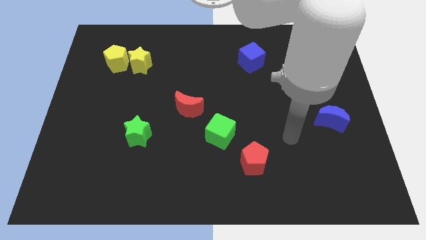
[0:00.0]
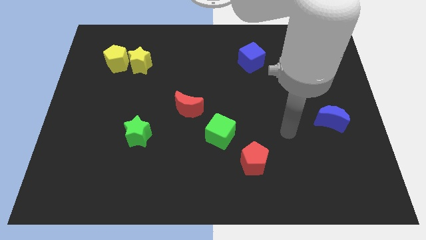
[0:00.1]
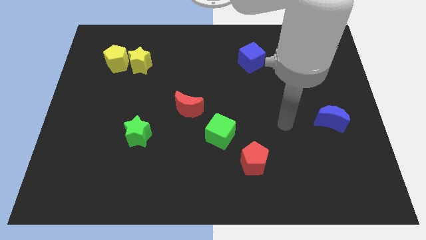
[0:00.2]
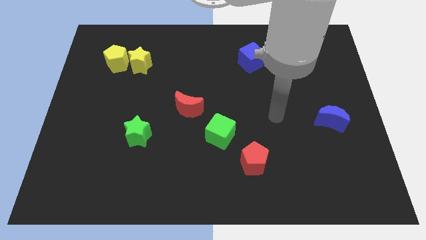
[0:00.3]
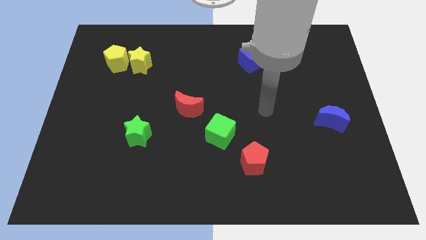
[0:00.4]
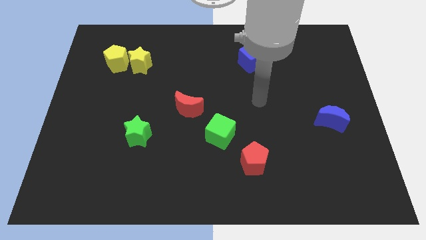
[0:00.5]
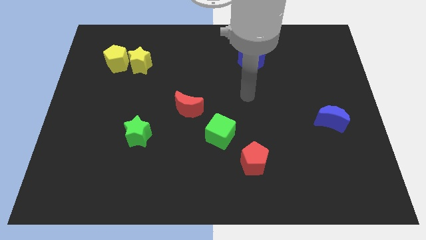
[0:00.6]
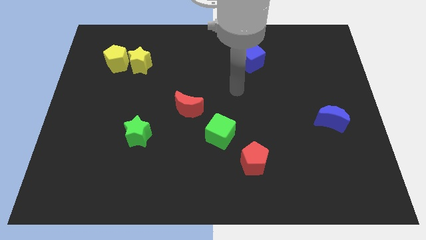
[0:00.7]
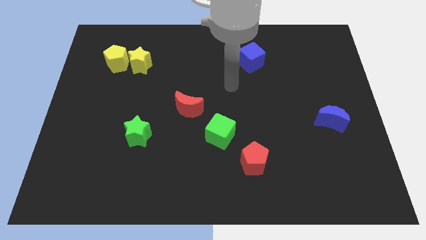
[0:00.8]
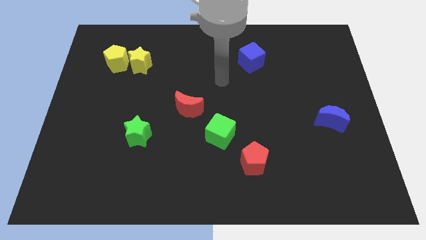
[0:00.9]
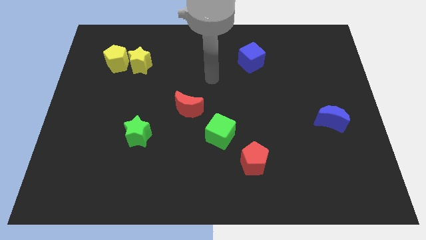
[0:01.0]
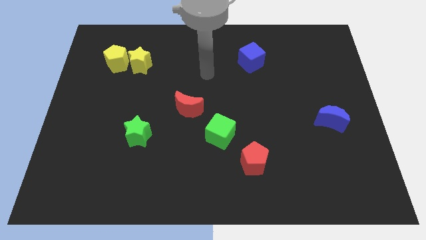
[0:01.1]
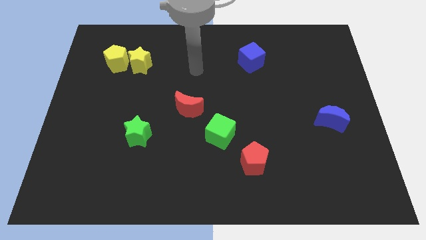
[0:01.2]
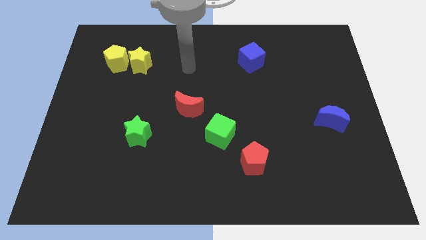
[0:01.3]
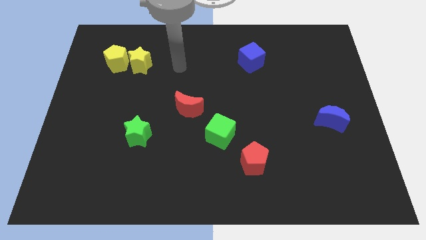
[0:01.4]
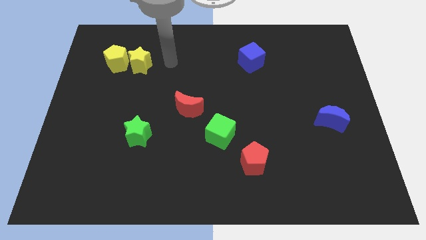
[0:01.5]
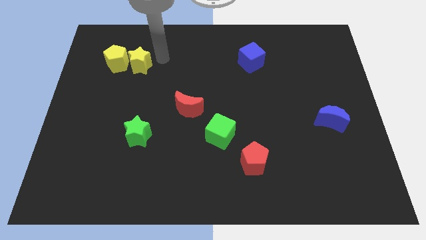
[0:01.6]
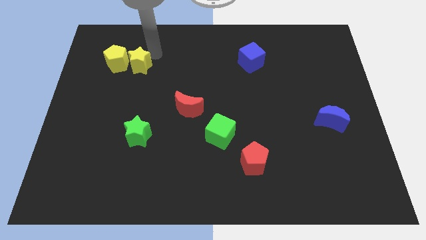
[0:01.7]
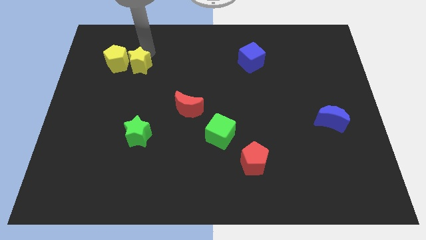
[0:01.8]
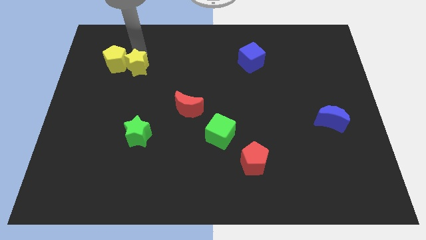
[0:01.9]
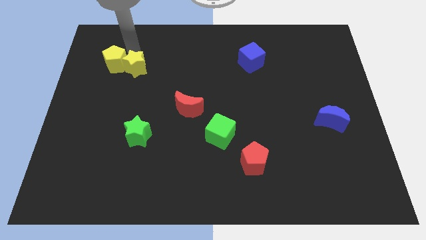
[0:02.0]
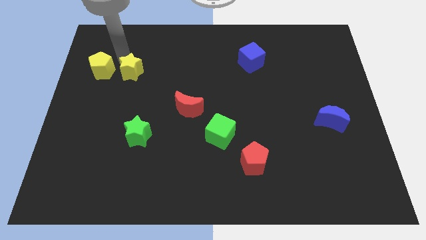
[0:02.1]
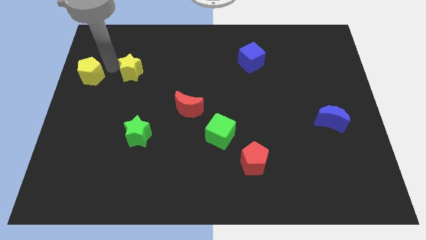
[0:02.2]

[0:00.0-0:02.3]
move the yellow star away from the yellow pentagon

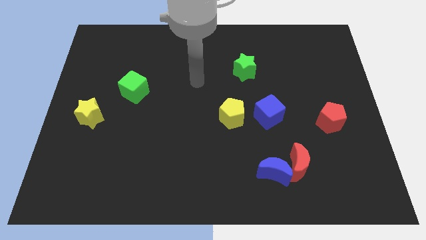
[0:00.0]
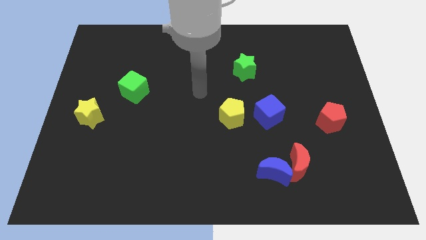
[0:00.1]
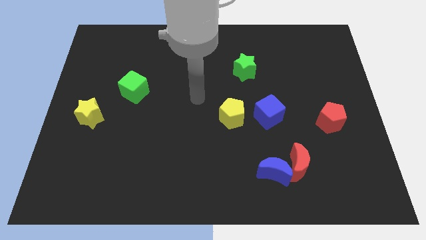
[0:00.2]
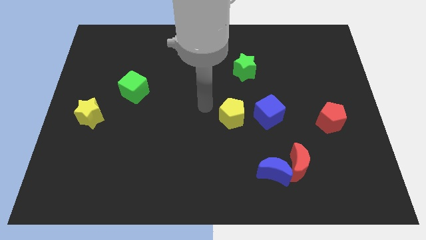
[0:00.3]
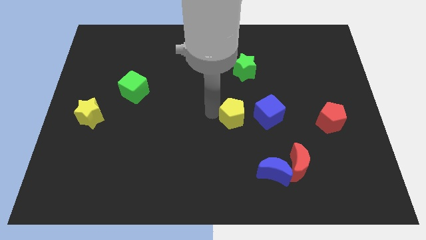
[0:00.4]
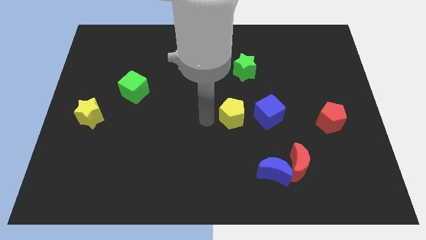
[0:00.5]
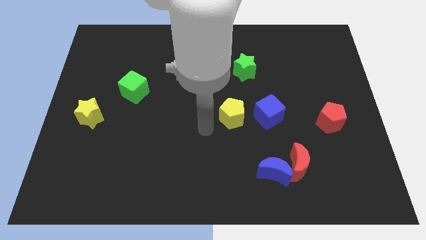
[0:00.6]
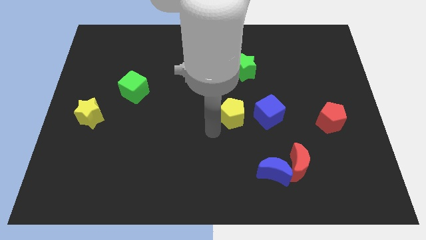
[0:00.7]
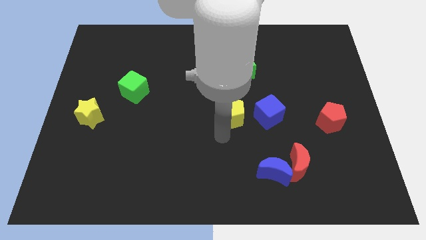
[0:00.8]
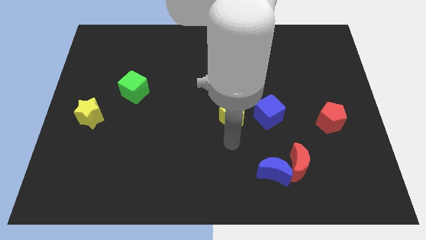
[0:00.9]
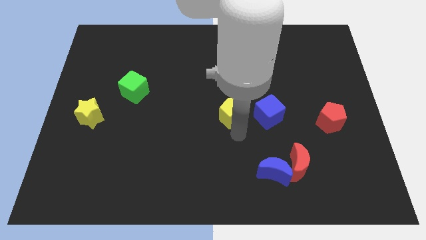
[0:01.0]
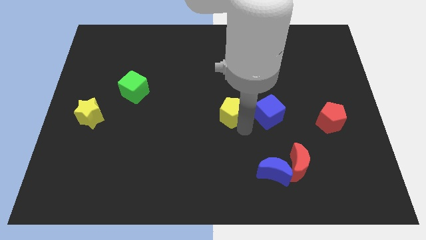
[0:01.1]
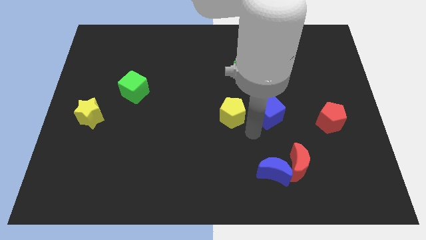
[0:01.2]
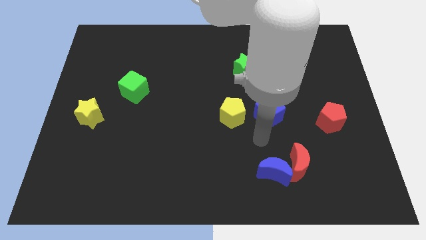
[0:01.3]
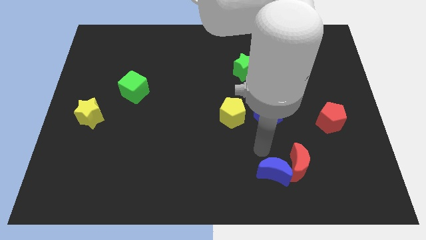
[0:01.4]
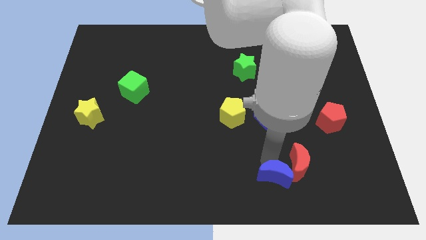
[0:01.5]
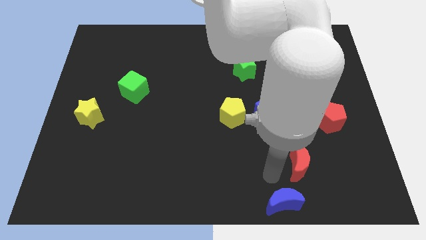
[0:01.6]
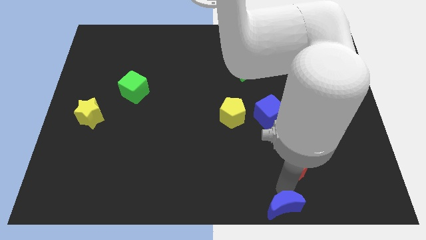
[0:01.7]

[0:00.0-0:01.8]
move the red moon away from the blue moon

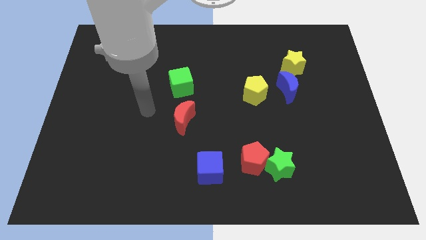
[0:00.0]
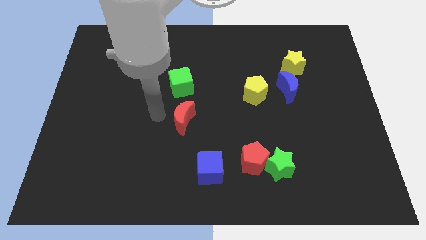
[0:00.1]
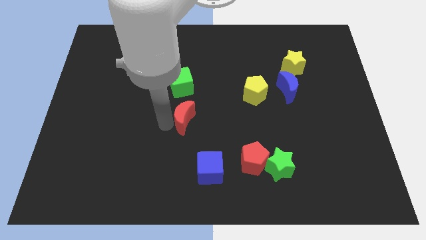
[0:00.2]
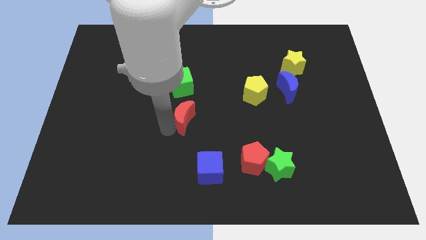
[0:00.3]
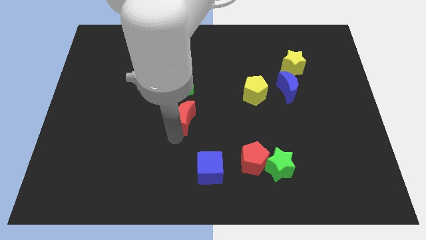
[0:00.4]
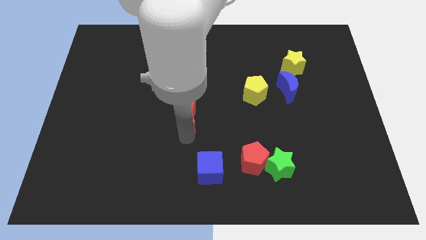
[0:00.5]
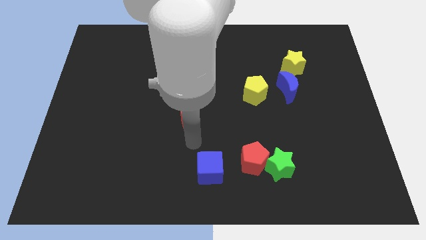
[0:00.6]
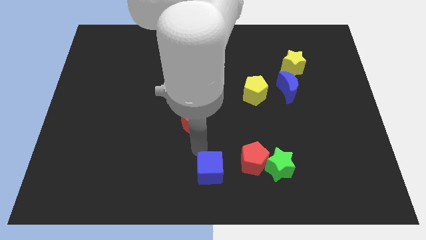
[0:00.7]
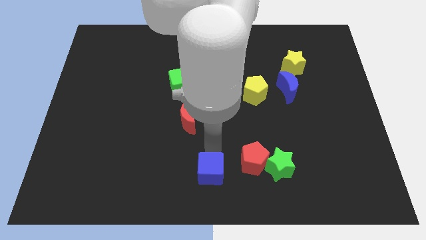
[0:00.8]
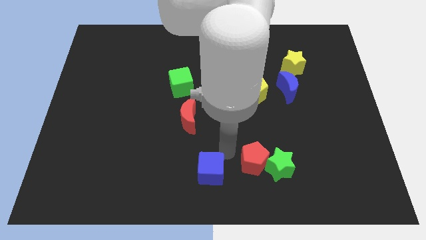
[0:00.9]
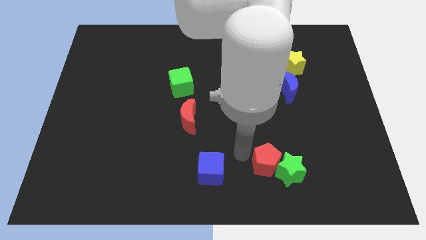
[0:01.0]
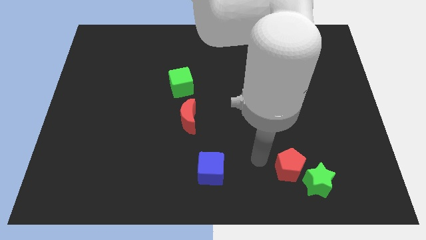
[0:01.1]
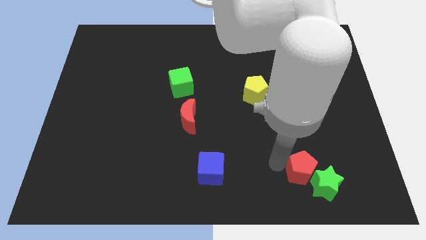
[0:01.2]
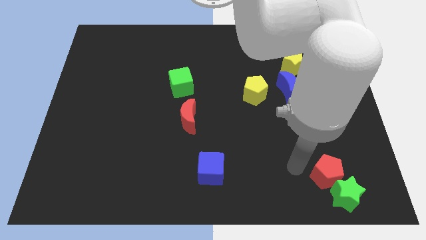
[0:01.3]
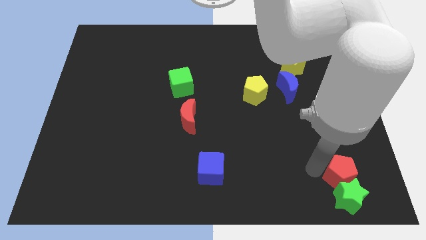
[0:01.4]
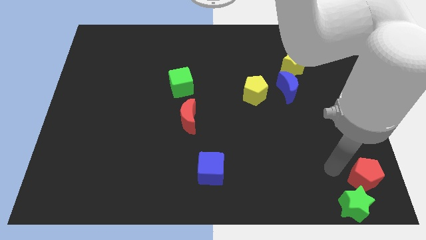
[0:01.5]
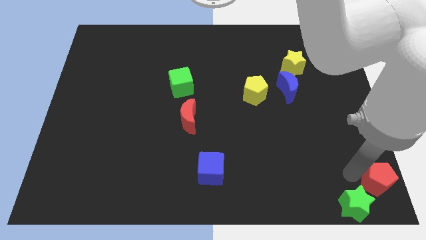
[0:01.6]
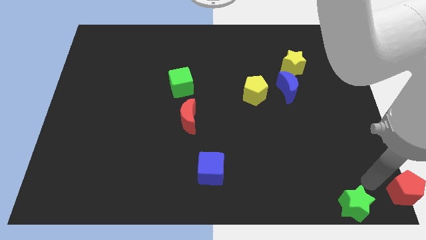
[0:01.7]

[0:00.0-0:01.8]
pull the green star apart from the red pentagon

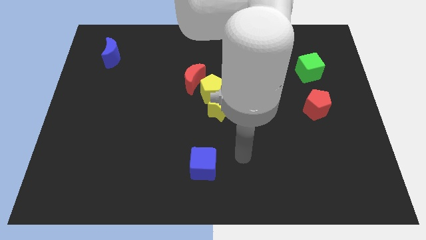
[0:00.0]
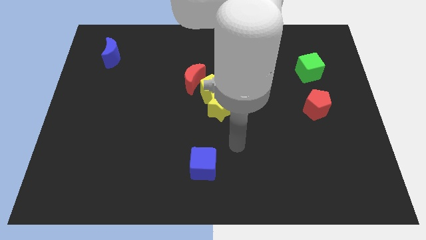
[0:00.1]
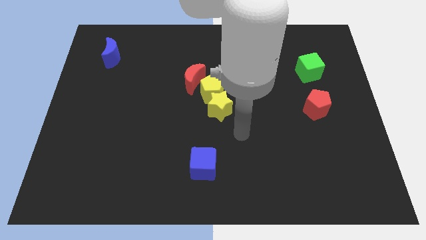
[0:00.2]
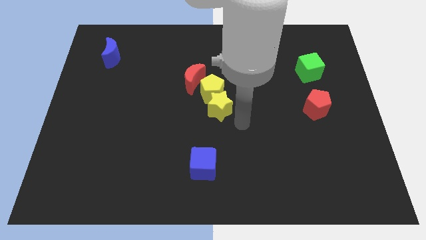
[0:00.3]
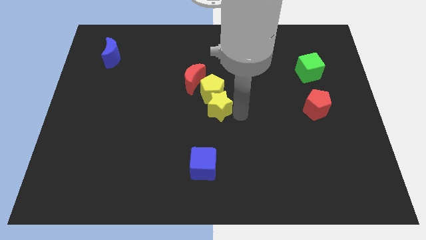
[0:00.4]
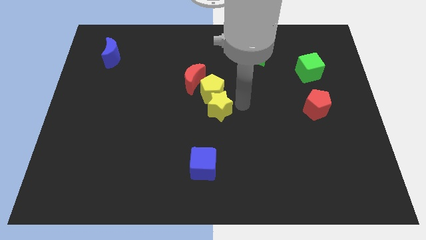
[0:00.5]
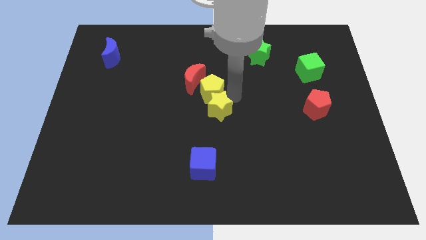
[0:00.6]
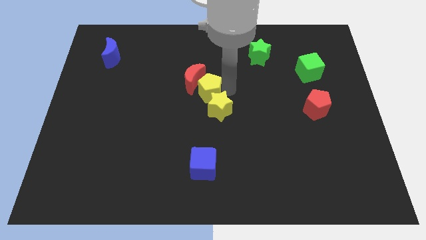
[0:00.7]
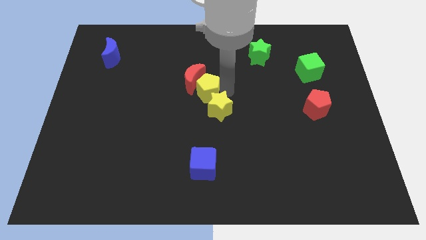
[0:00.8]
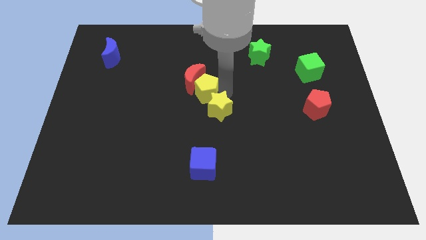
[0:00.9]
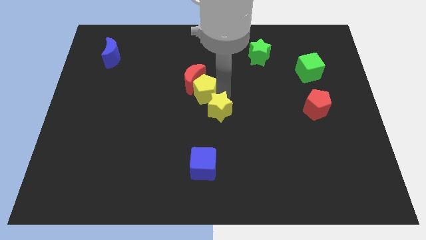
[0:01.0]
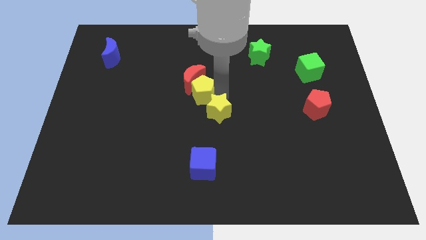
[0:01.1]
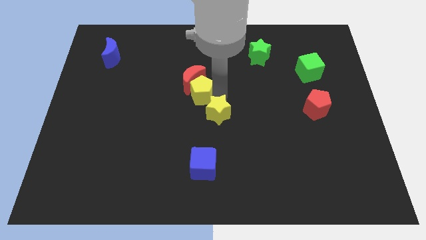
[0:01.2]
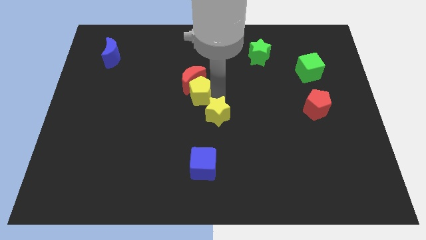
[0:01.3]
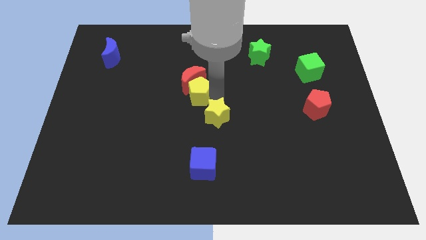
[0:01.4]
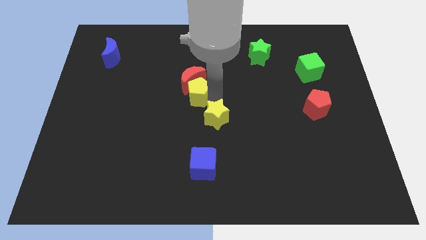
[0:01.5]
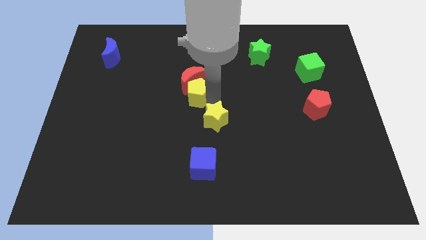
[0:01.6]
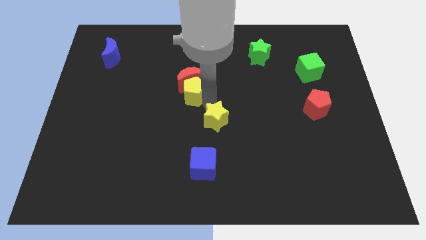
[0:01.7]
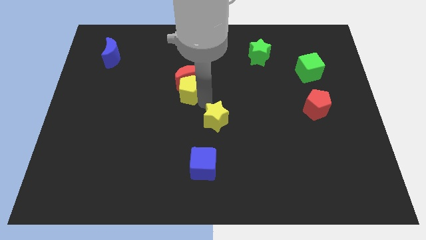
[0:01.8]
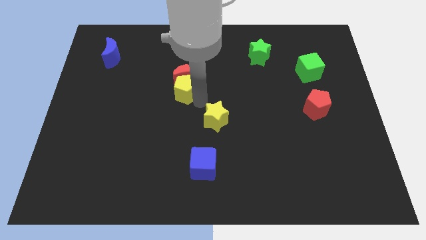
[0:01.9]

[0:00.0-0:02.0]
pull the yellow star apart from the yellow pentagon

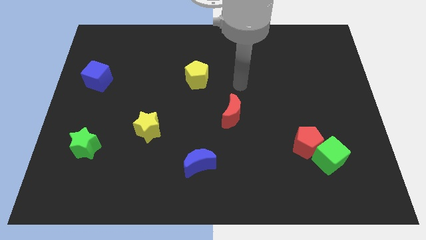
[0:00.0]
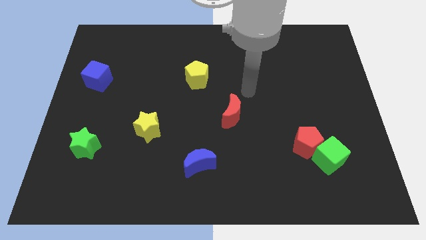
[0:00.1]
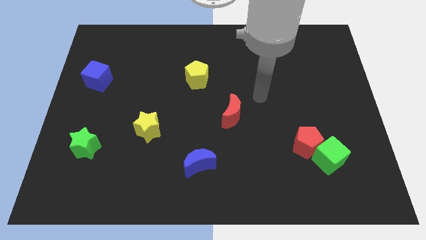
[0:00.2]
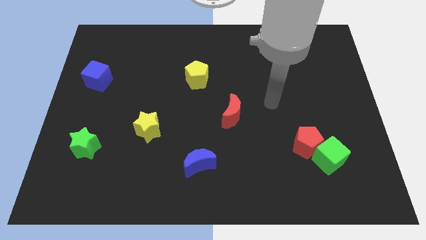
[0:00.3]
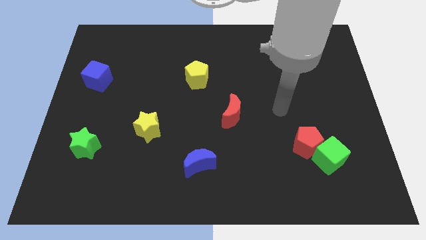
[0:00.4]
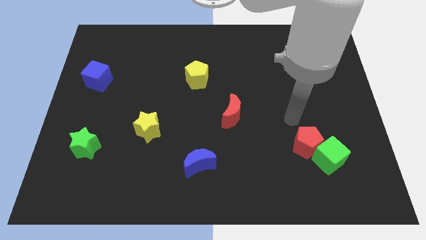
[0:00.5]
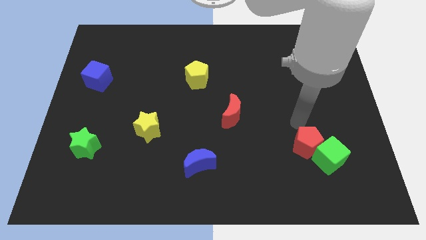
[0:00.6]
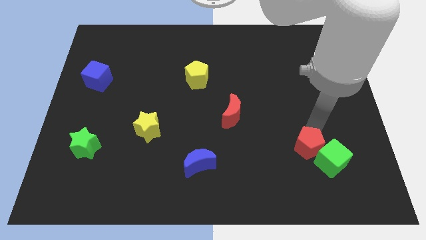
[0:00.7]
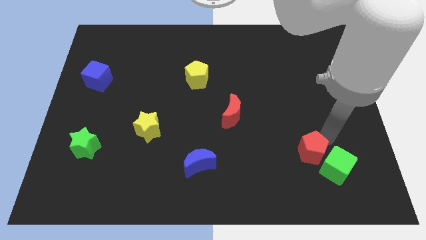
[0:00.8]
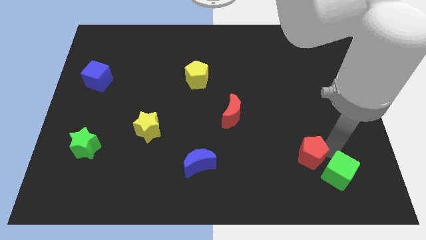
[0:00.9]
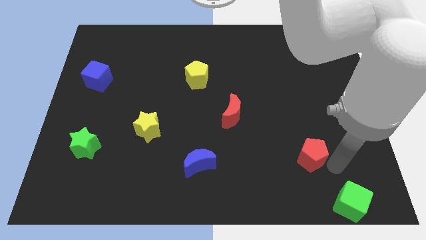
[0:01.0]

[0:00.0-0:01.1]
move the red pentagon away from the green cube

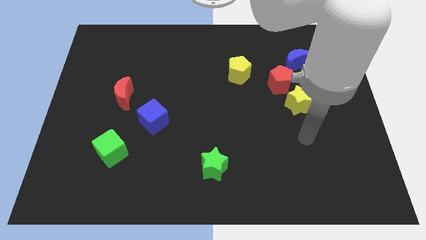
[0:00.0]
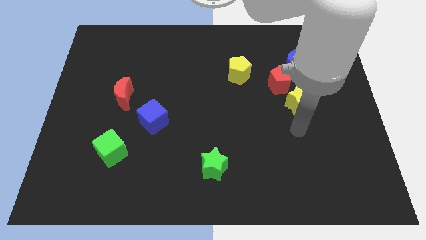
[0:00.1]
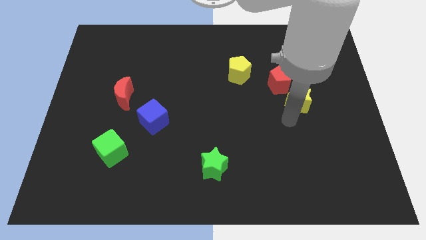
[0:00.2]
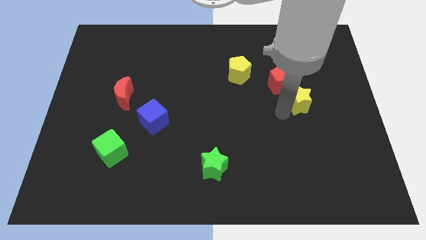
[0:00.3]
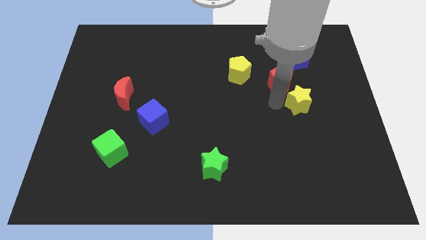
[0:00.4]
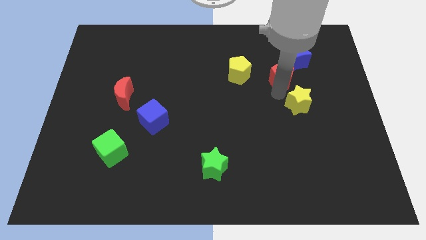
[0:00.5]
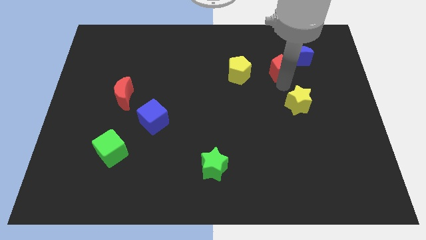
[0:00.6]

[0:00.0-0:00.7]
move the yellow star away from the red pentagon
